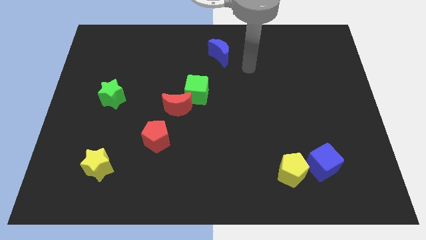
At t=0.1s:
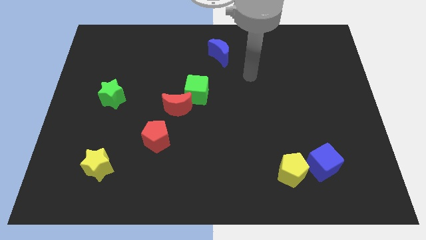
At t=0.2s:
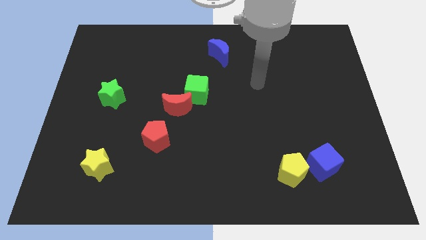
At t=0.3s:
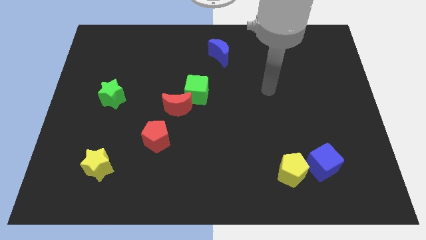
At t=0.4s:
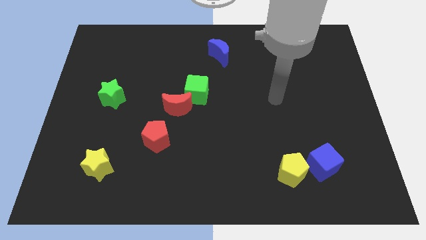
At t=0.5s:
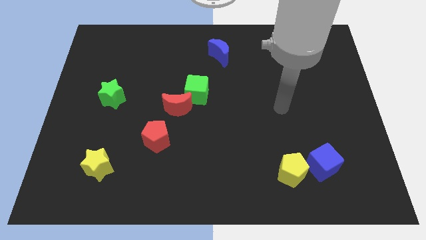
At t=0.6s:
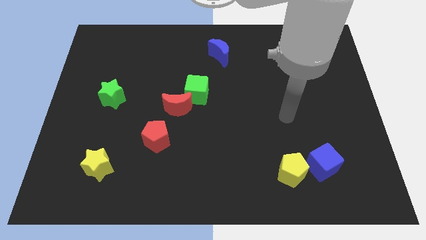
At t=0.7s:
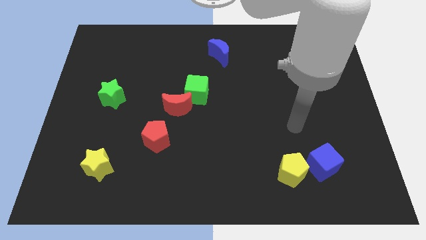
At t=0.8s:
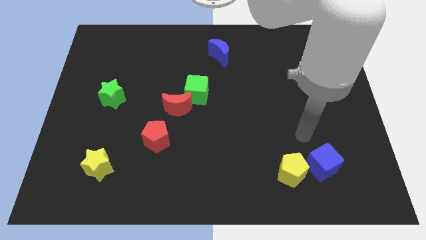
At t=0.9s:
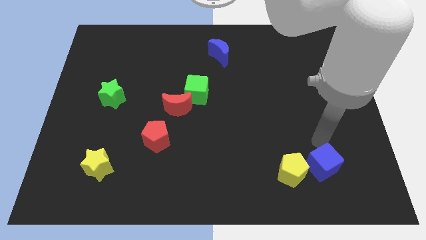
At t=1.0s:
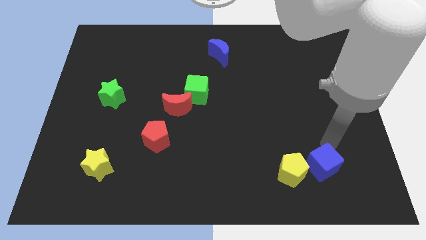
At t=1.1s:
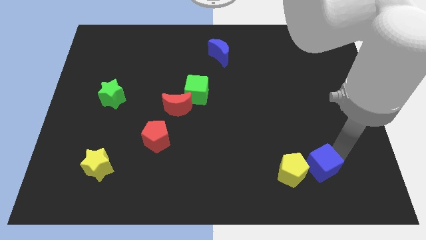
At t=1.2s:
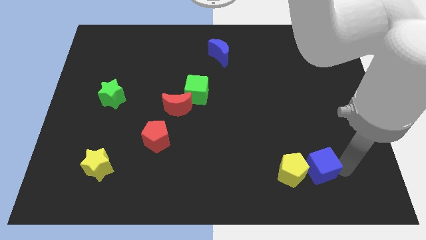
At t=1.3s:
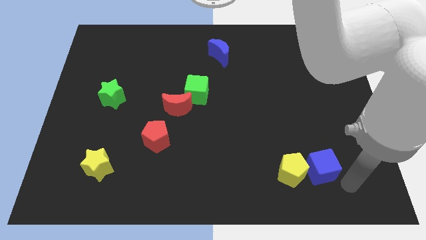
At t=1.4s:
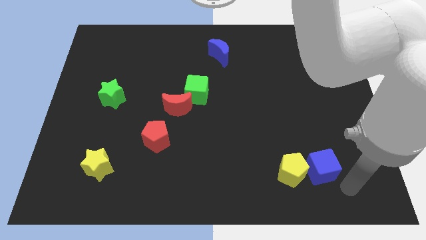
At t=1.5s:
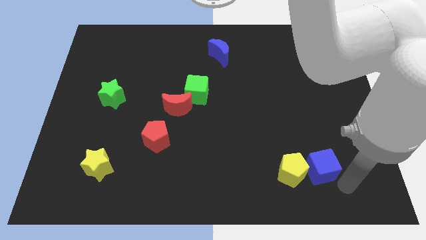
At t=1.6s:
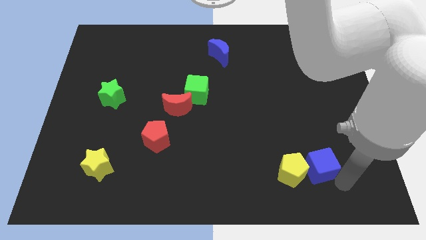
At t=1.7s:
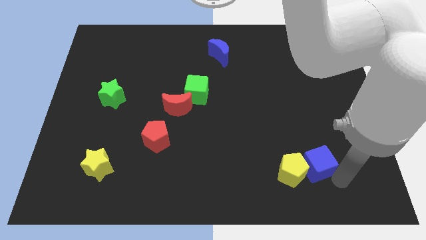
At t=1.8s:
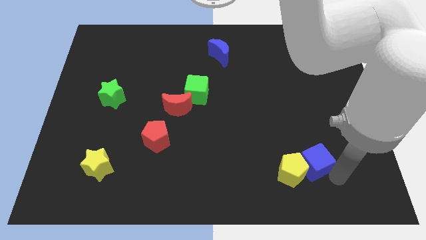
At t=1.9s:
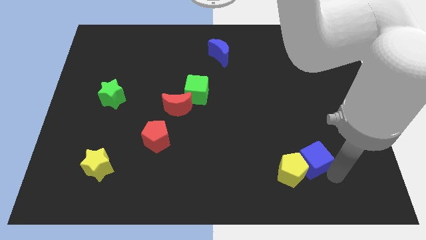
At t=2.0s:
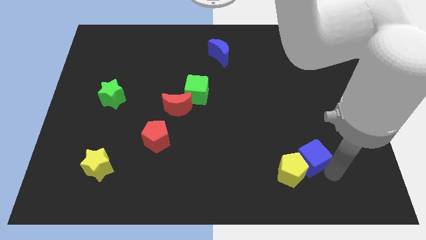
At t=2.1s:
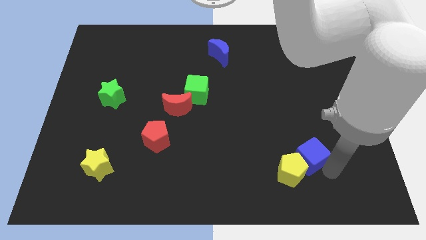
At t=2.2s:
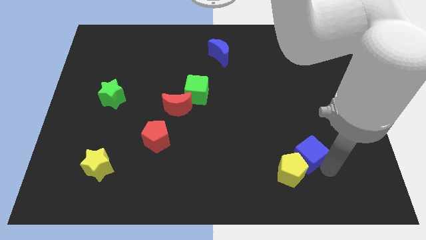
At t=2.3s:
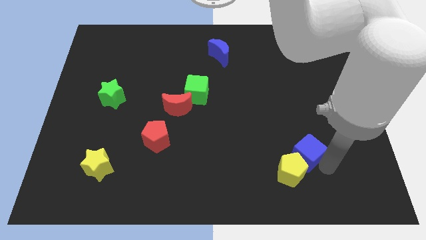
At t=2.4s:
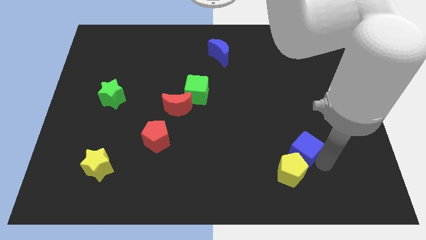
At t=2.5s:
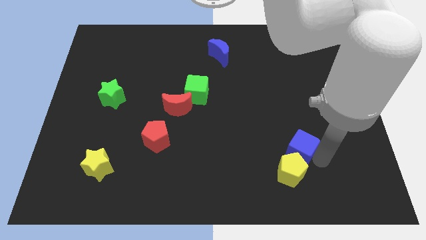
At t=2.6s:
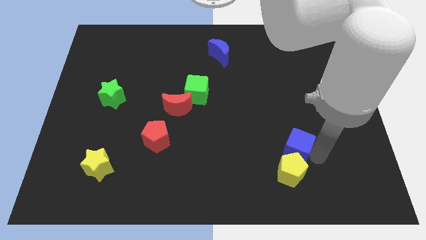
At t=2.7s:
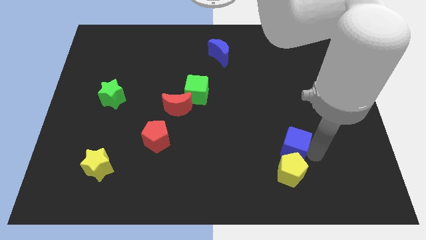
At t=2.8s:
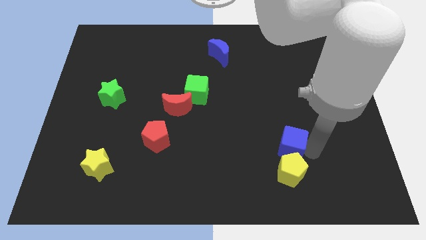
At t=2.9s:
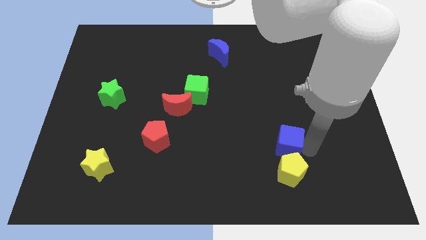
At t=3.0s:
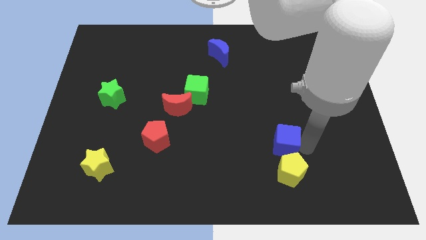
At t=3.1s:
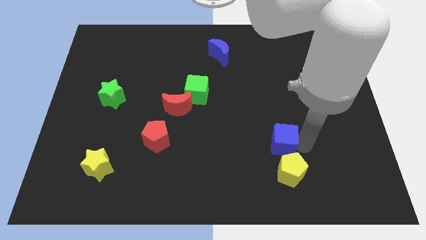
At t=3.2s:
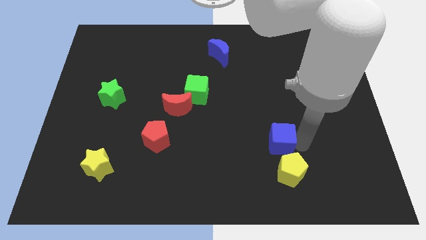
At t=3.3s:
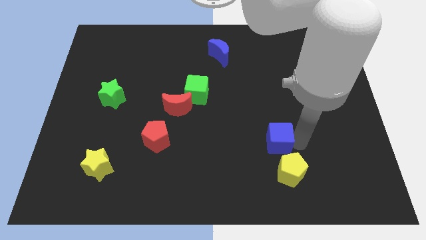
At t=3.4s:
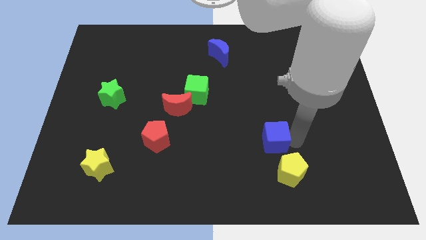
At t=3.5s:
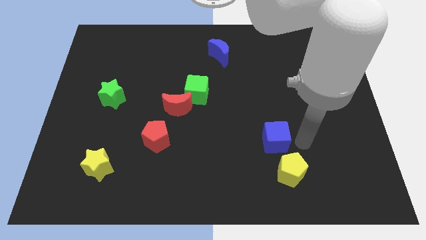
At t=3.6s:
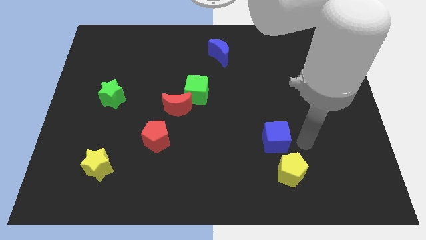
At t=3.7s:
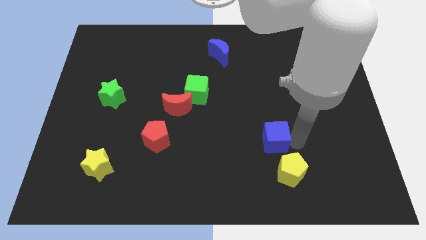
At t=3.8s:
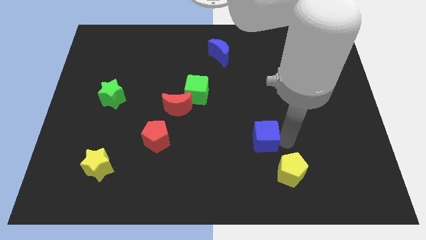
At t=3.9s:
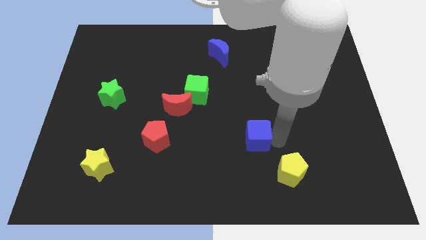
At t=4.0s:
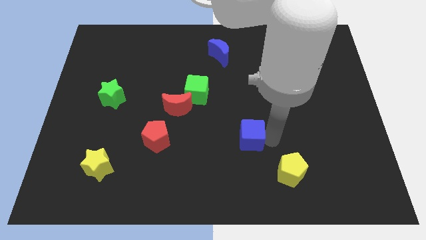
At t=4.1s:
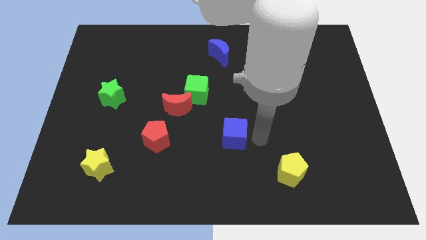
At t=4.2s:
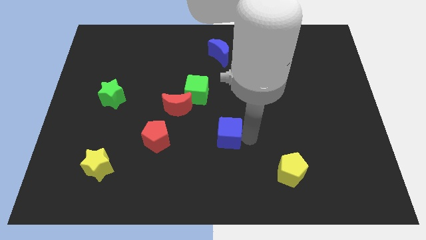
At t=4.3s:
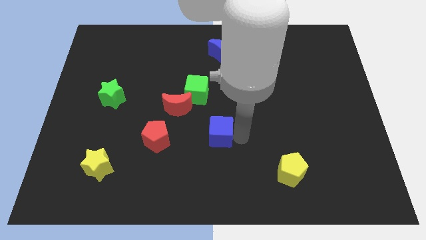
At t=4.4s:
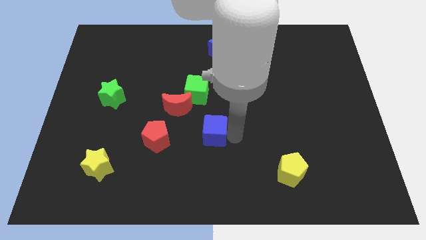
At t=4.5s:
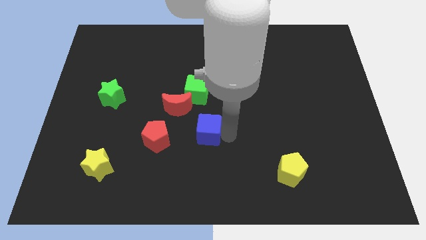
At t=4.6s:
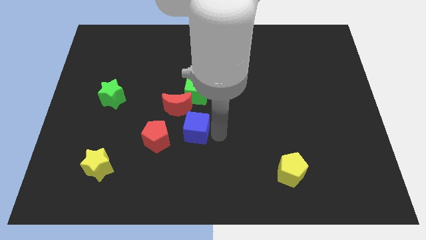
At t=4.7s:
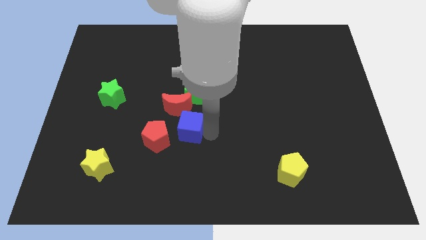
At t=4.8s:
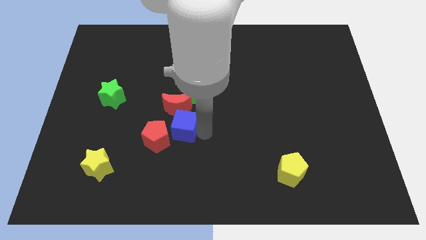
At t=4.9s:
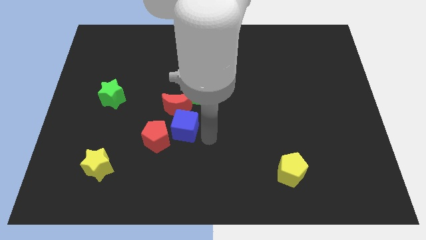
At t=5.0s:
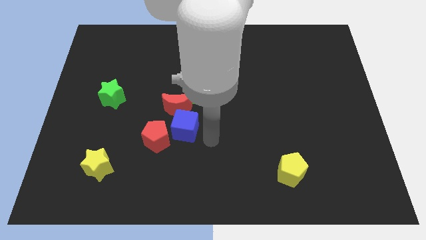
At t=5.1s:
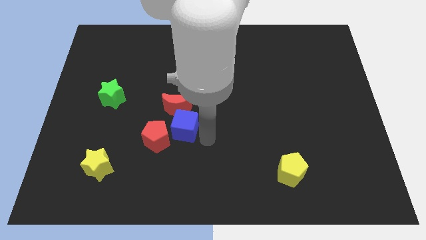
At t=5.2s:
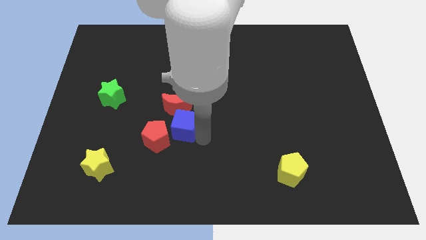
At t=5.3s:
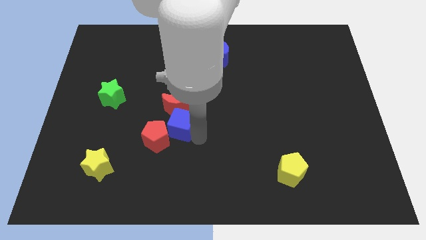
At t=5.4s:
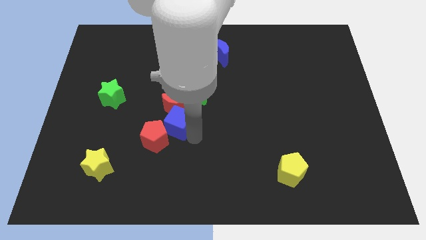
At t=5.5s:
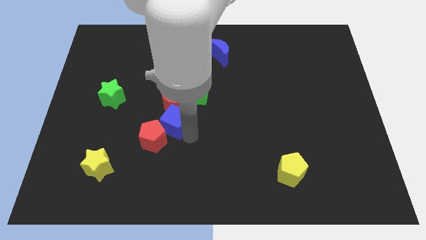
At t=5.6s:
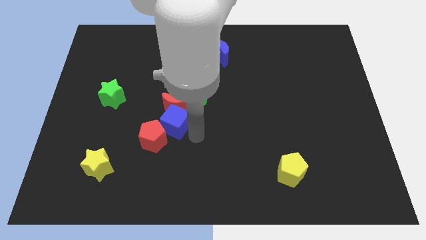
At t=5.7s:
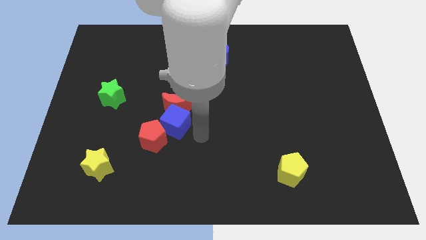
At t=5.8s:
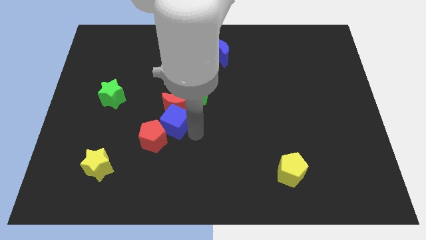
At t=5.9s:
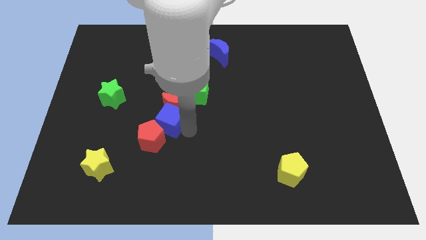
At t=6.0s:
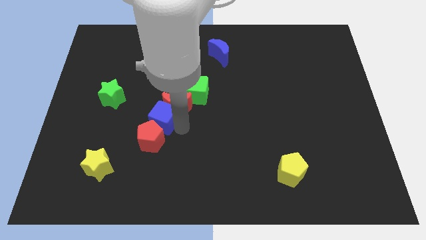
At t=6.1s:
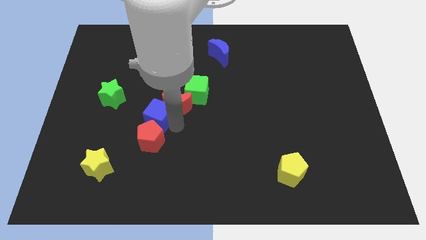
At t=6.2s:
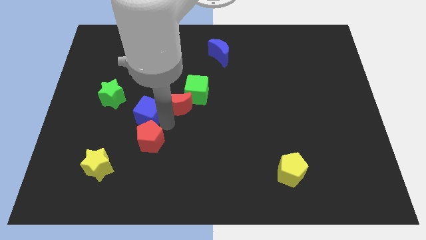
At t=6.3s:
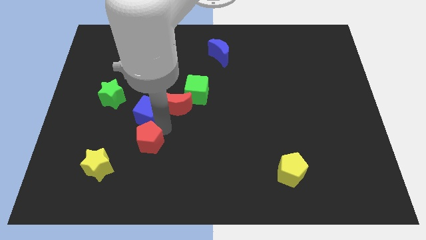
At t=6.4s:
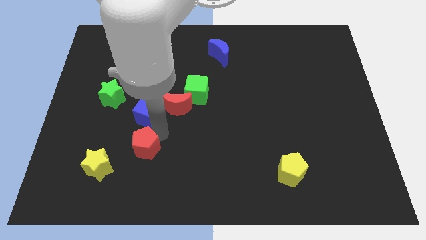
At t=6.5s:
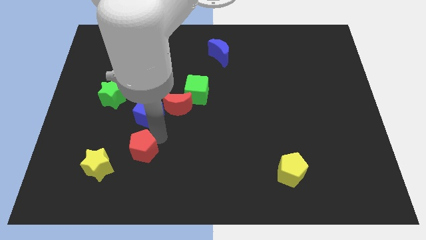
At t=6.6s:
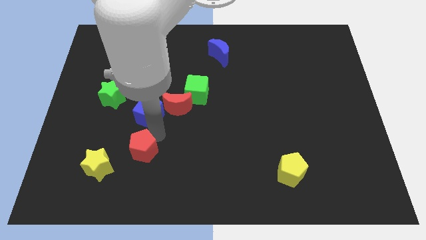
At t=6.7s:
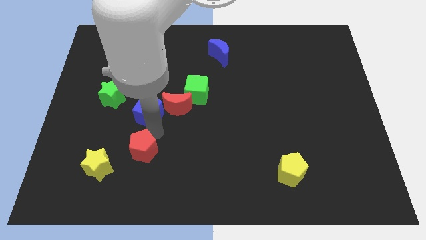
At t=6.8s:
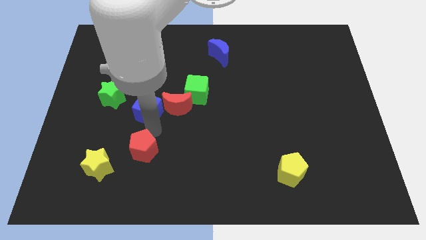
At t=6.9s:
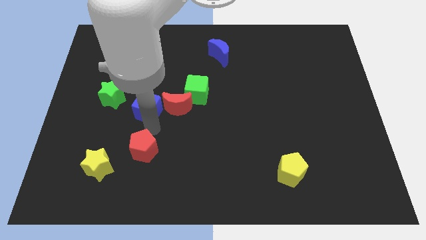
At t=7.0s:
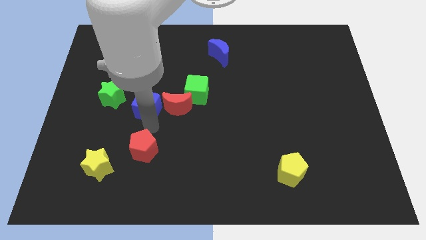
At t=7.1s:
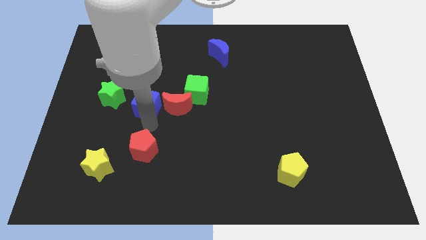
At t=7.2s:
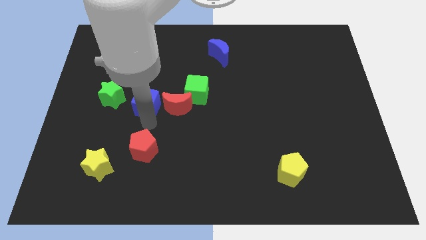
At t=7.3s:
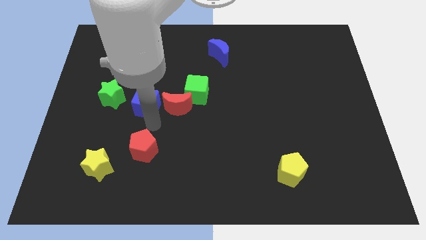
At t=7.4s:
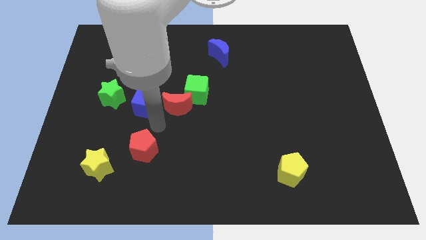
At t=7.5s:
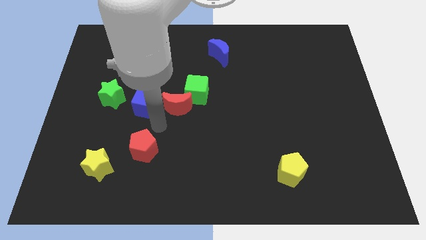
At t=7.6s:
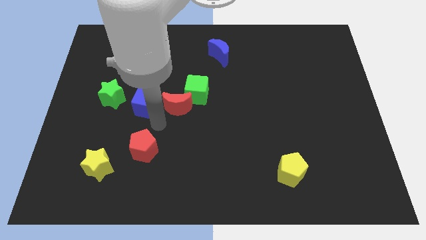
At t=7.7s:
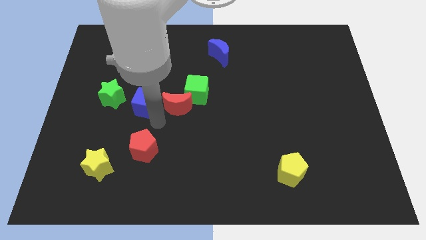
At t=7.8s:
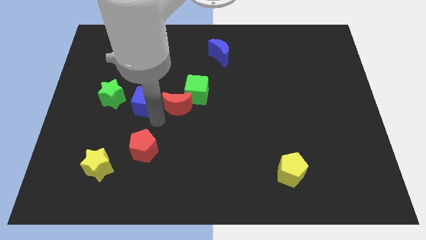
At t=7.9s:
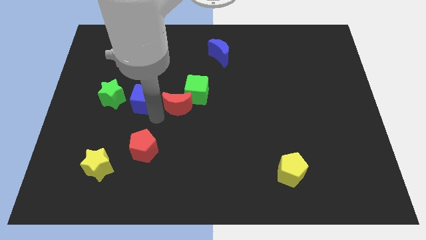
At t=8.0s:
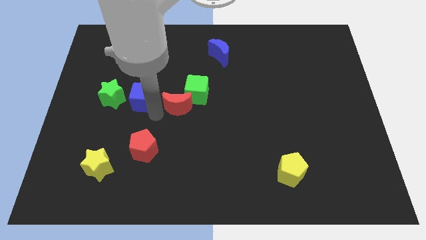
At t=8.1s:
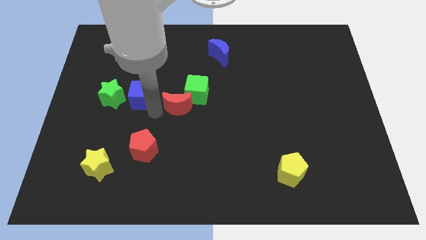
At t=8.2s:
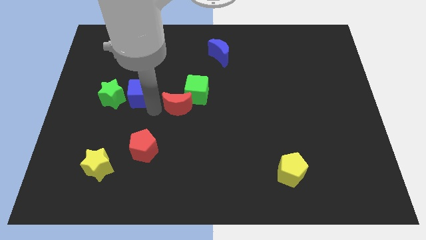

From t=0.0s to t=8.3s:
move the blue cube diagonally up and to the right of the green star
